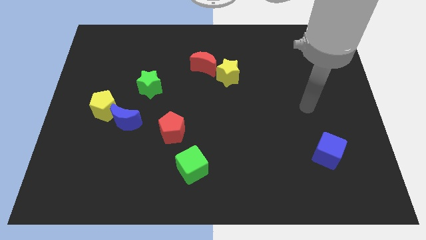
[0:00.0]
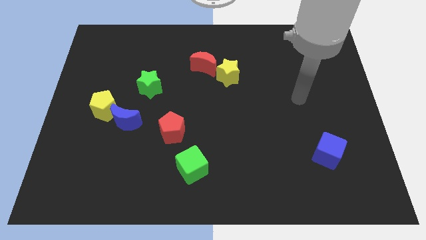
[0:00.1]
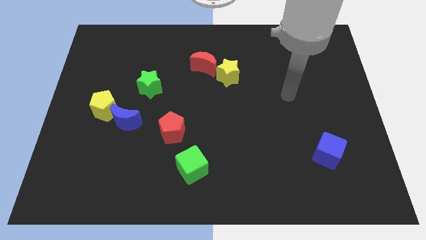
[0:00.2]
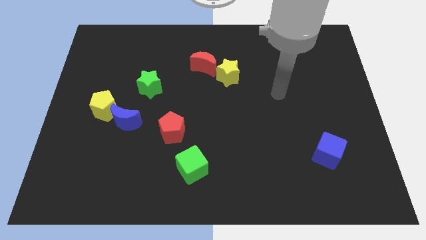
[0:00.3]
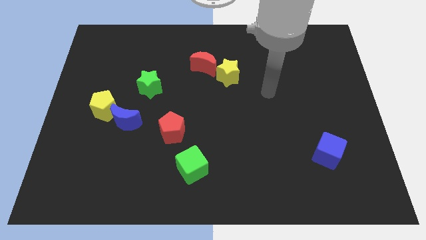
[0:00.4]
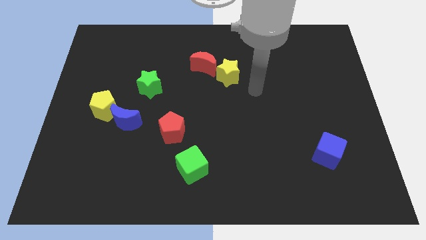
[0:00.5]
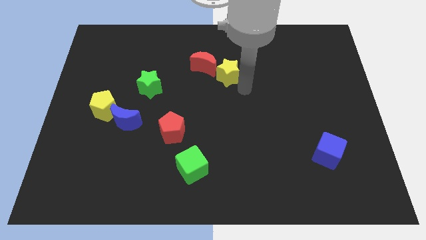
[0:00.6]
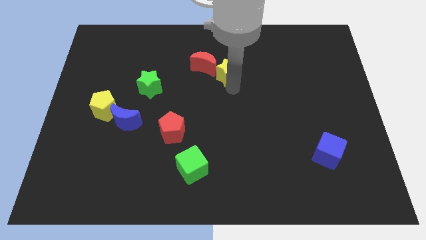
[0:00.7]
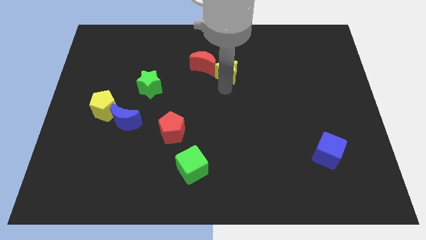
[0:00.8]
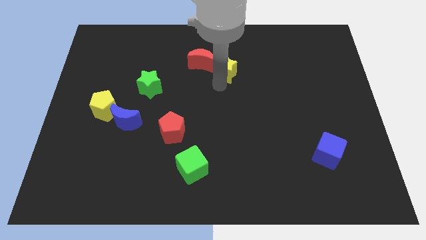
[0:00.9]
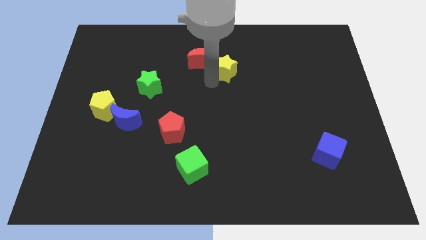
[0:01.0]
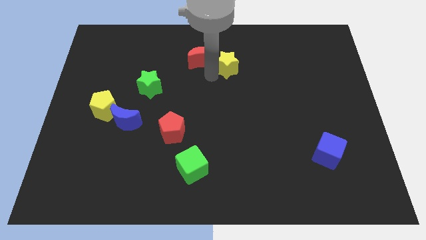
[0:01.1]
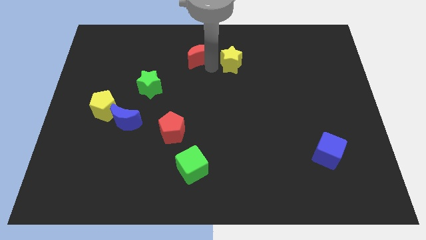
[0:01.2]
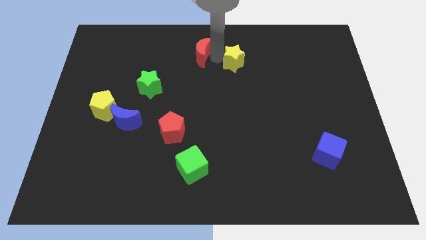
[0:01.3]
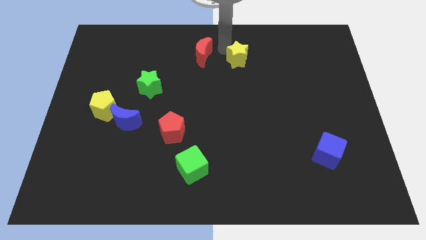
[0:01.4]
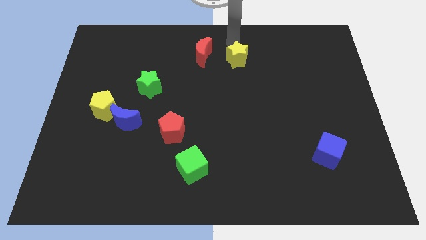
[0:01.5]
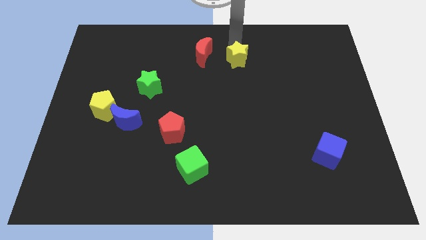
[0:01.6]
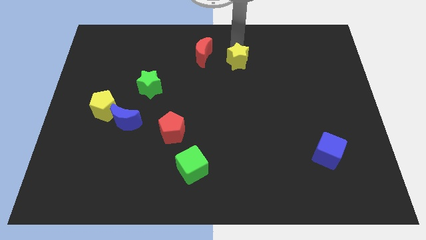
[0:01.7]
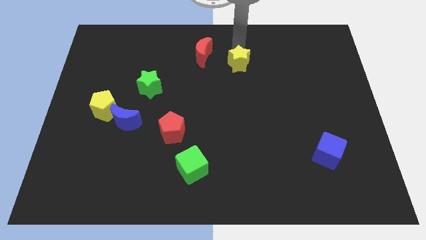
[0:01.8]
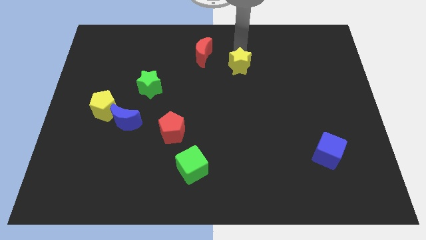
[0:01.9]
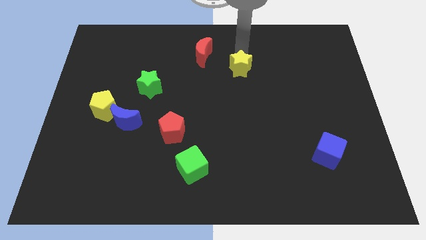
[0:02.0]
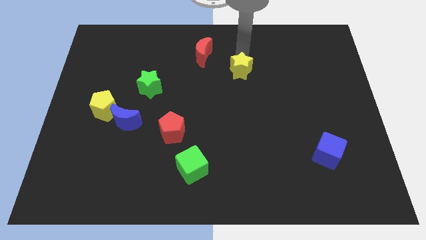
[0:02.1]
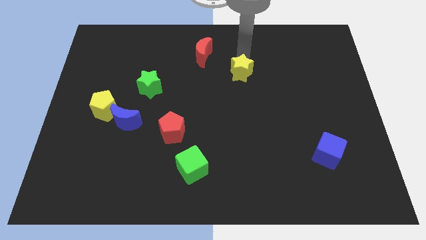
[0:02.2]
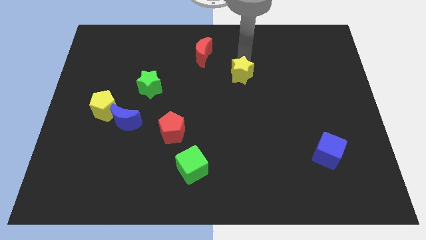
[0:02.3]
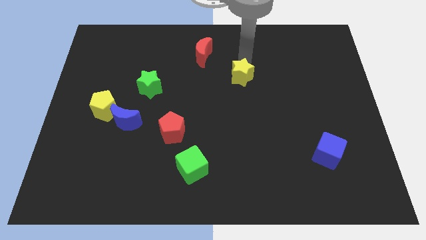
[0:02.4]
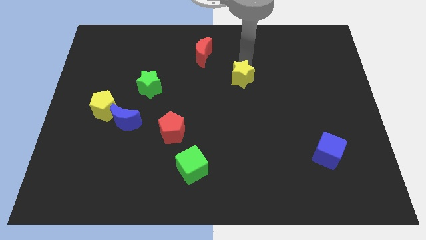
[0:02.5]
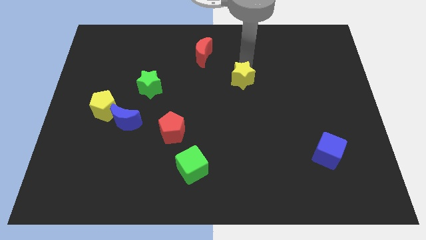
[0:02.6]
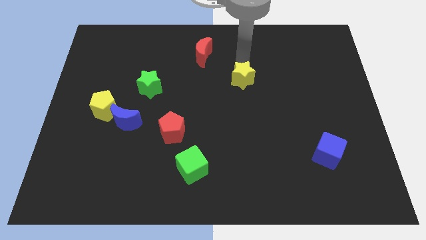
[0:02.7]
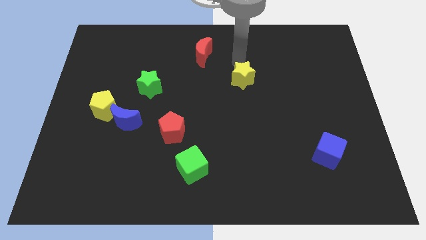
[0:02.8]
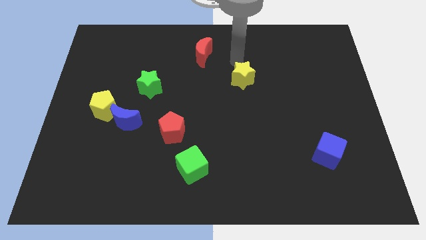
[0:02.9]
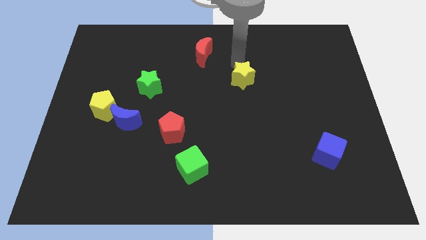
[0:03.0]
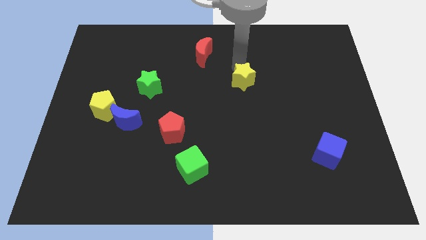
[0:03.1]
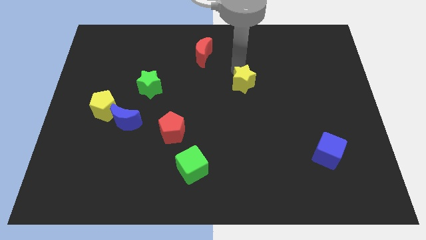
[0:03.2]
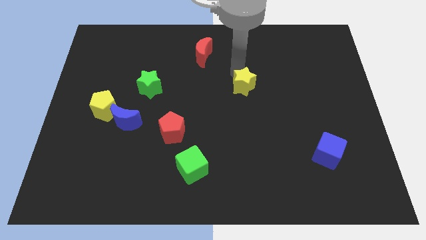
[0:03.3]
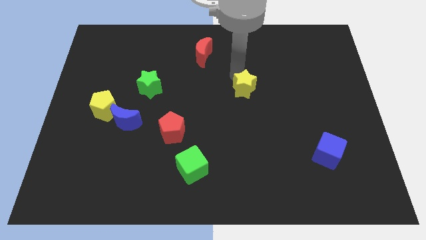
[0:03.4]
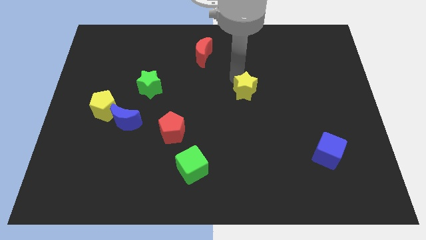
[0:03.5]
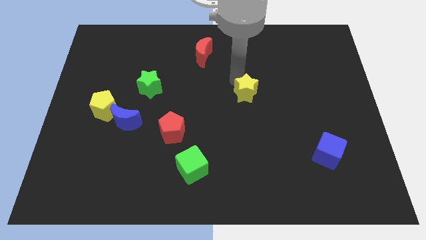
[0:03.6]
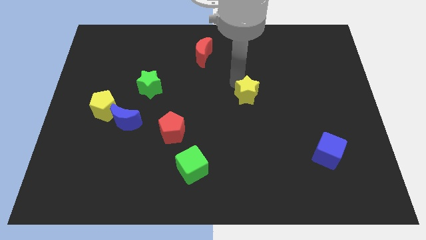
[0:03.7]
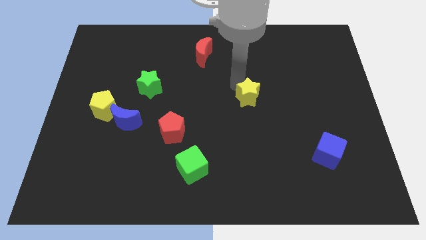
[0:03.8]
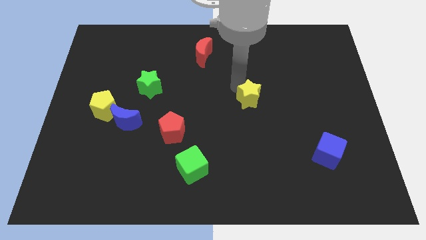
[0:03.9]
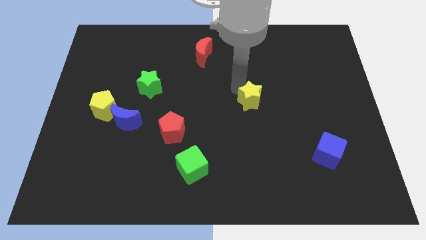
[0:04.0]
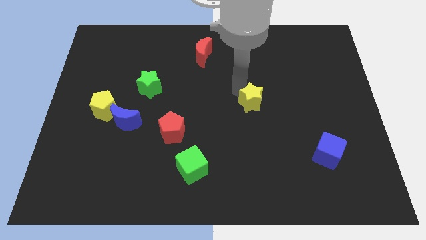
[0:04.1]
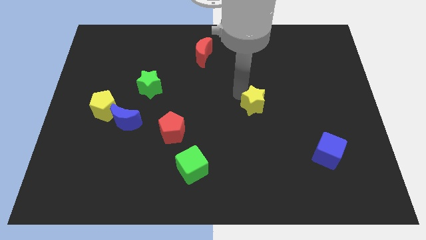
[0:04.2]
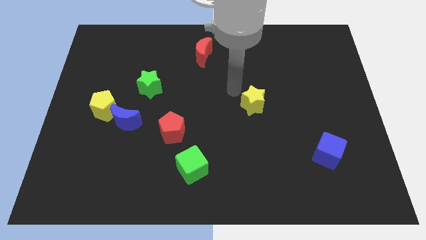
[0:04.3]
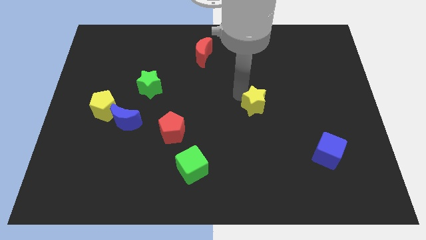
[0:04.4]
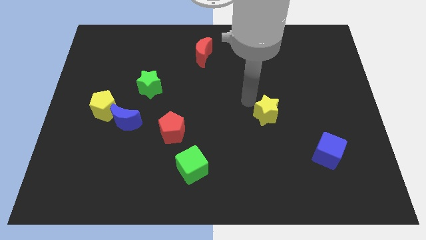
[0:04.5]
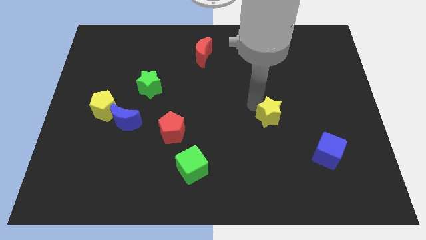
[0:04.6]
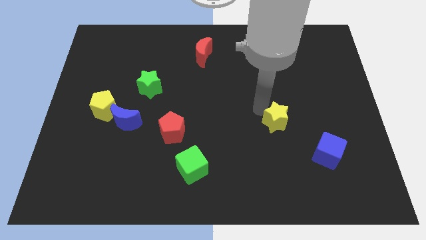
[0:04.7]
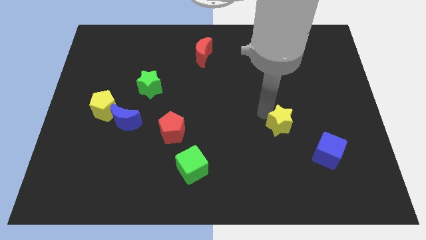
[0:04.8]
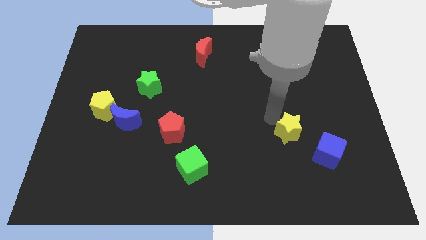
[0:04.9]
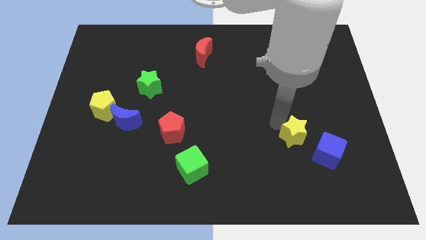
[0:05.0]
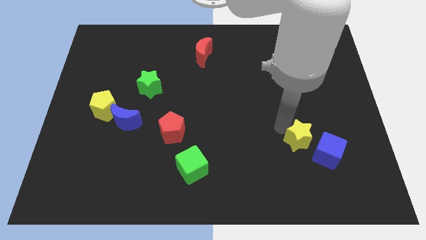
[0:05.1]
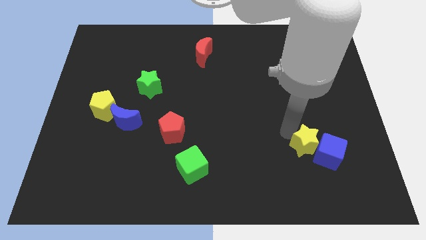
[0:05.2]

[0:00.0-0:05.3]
slide the yellow star to the blue cube

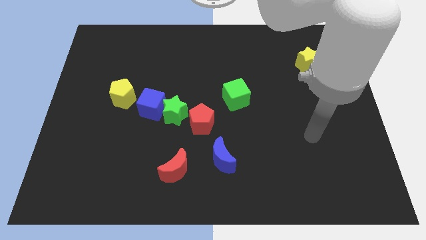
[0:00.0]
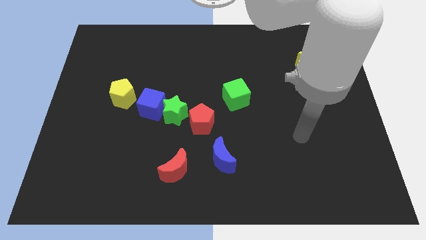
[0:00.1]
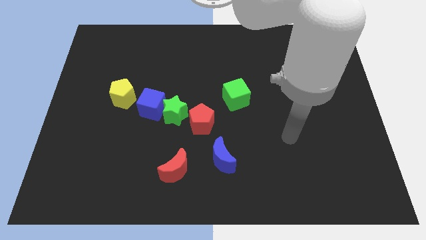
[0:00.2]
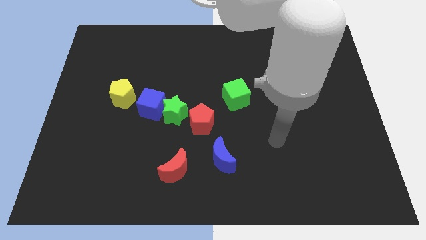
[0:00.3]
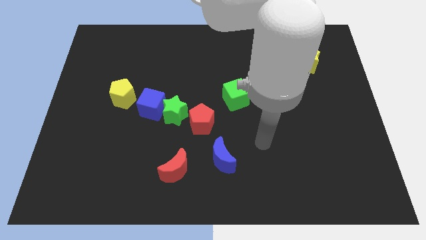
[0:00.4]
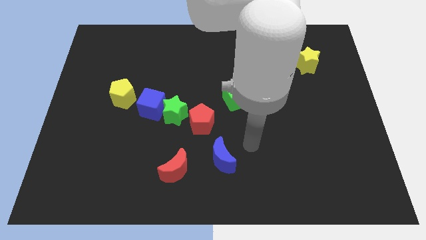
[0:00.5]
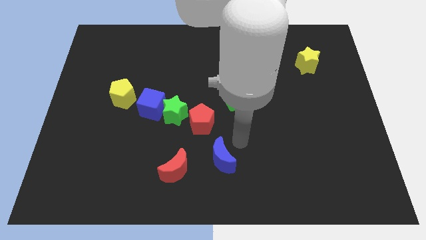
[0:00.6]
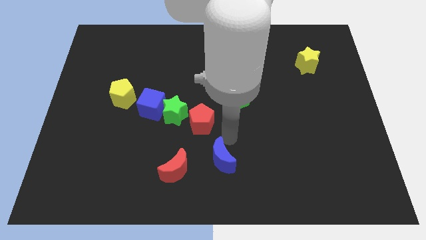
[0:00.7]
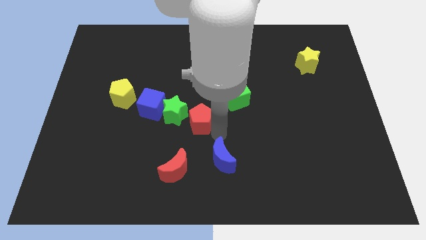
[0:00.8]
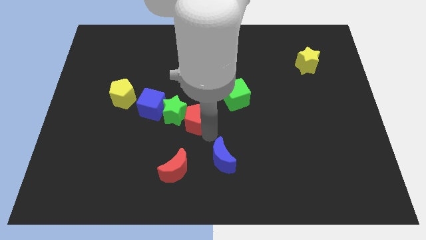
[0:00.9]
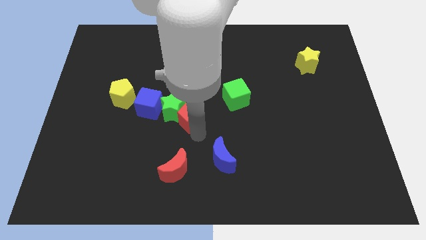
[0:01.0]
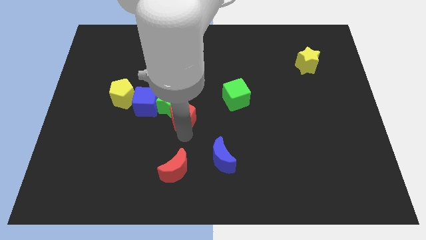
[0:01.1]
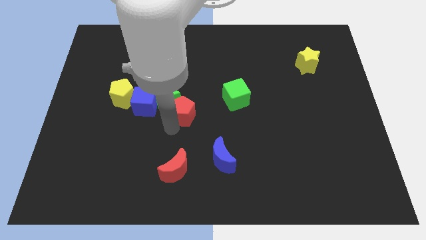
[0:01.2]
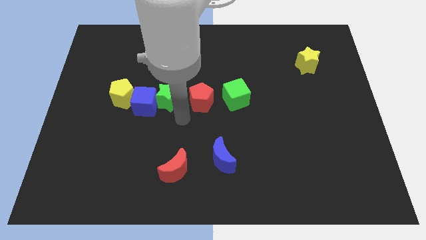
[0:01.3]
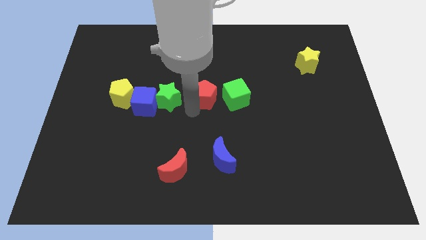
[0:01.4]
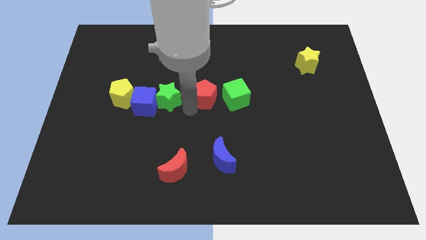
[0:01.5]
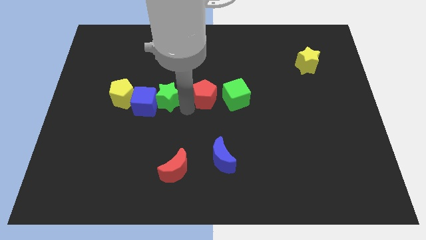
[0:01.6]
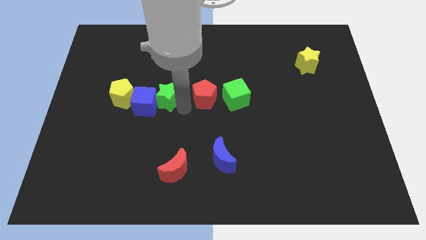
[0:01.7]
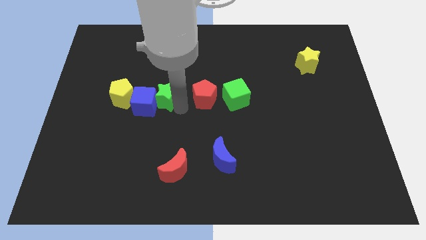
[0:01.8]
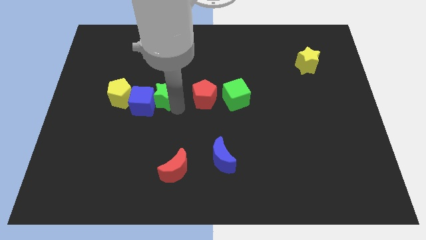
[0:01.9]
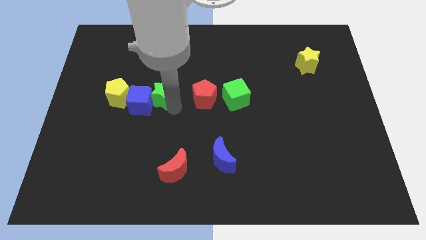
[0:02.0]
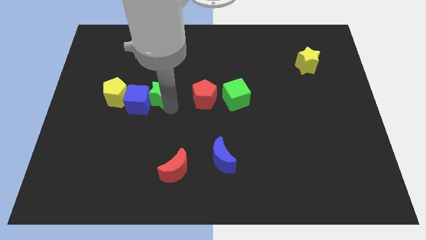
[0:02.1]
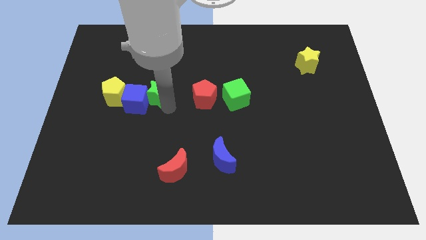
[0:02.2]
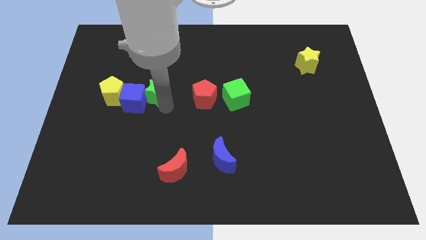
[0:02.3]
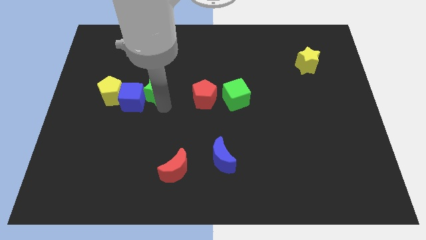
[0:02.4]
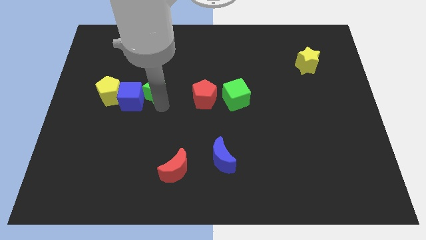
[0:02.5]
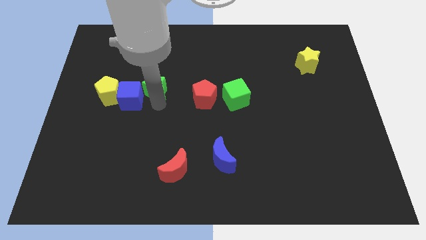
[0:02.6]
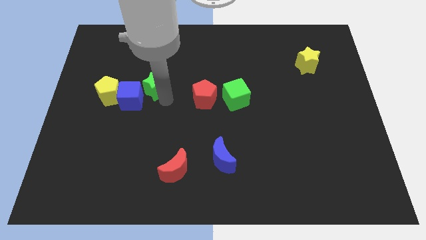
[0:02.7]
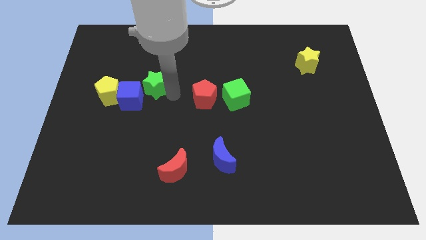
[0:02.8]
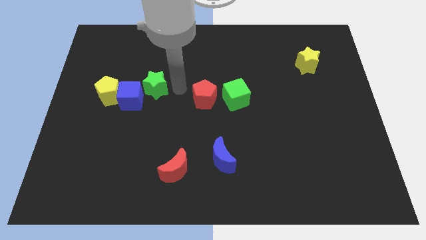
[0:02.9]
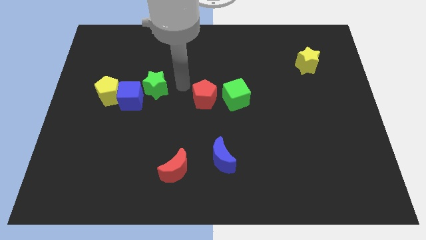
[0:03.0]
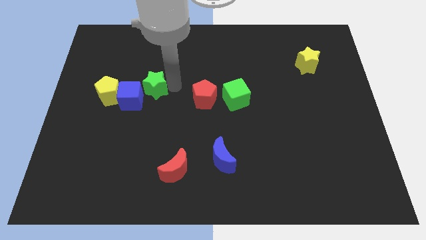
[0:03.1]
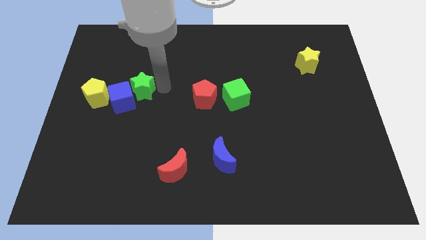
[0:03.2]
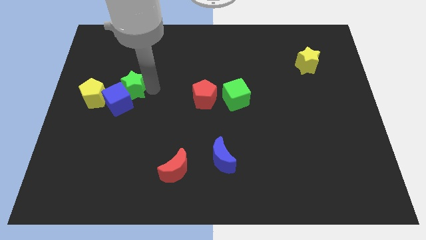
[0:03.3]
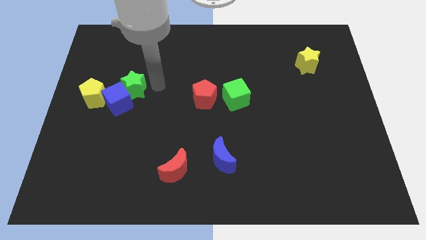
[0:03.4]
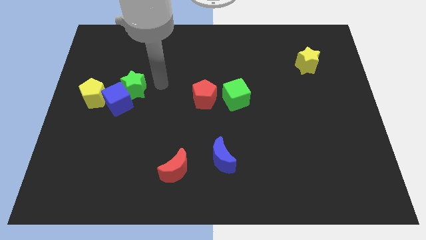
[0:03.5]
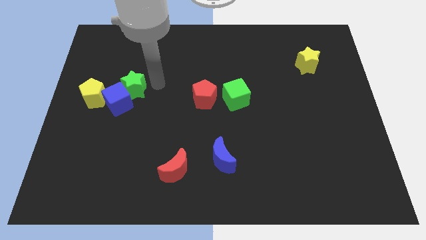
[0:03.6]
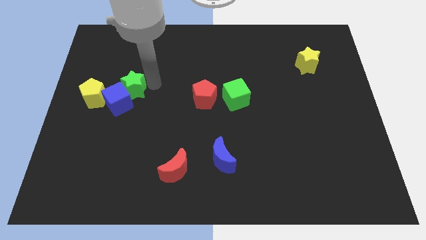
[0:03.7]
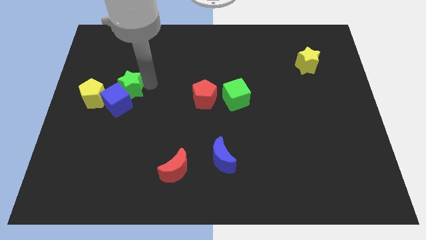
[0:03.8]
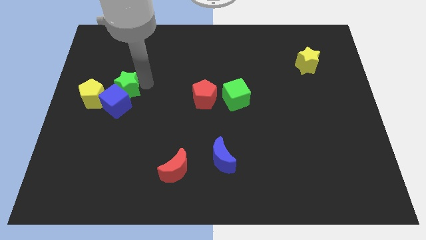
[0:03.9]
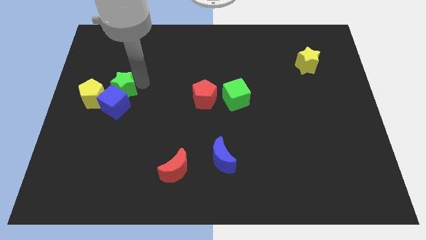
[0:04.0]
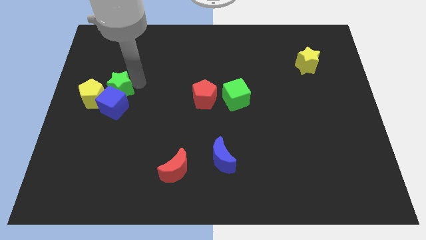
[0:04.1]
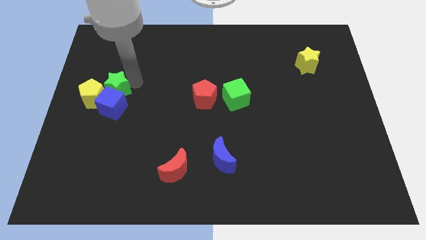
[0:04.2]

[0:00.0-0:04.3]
move the green star close to the yellow pentagon
